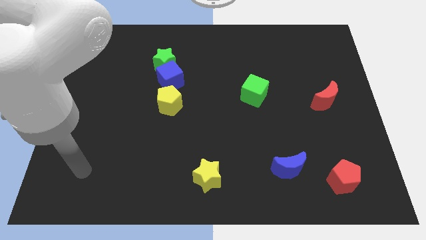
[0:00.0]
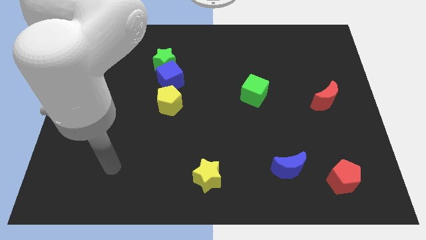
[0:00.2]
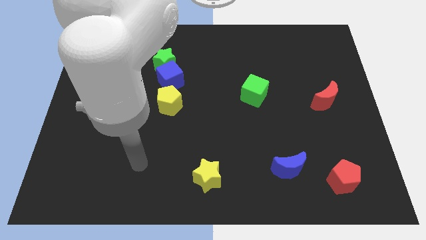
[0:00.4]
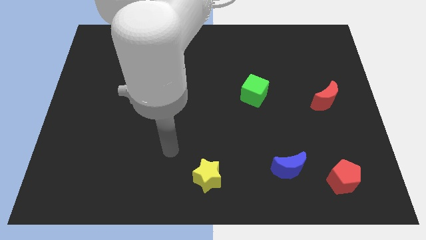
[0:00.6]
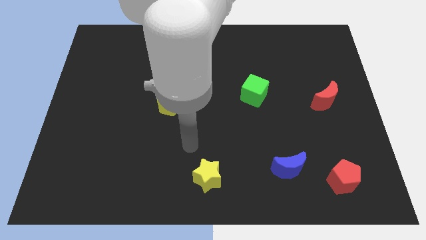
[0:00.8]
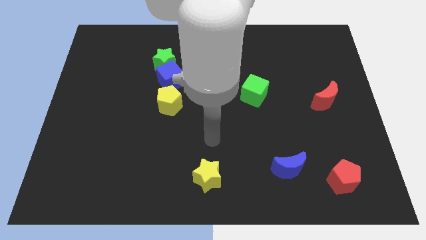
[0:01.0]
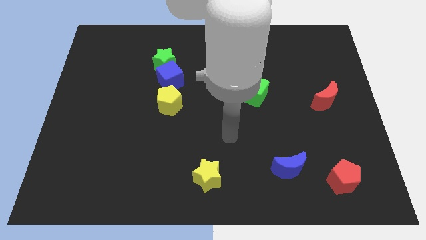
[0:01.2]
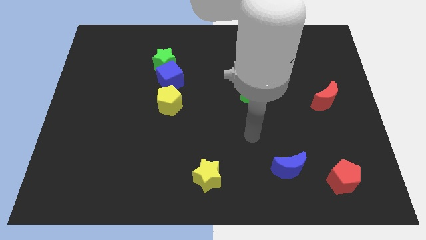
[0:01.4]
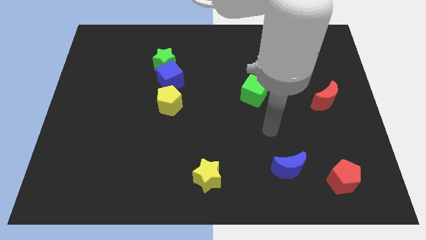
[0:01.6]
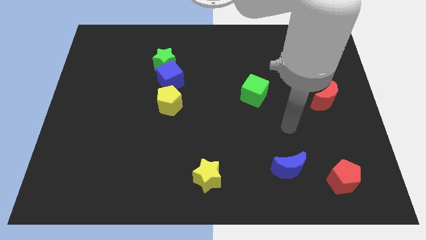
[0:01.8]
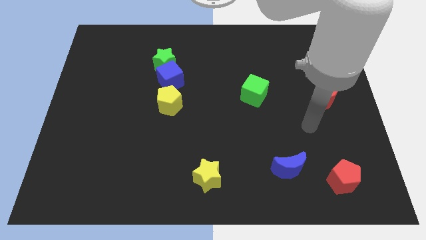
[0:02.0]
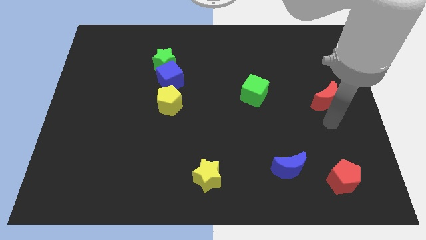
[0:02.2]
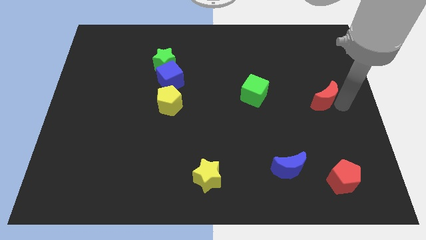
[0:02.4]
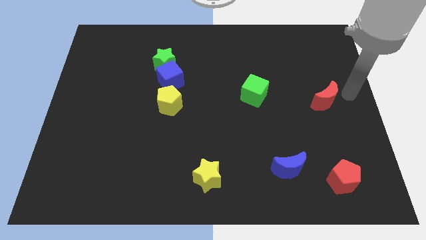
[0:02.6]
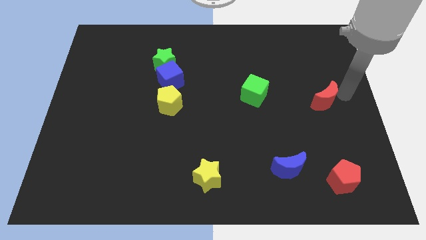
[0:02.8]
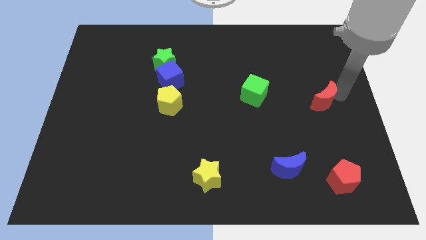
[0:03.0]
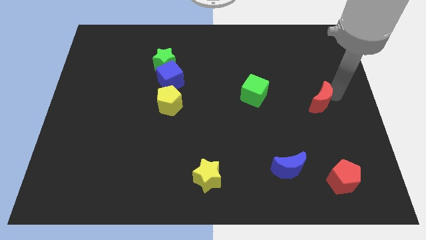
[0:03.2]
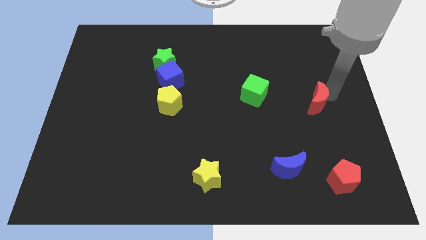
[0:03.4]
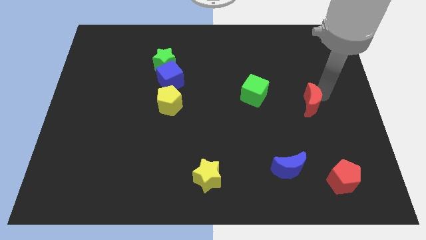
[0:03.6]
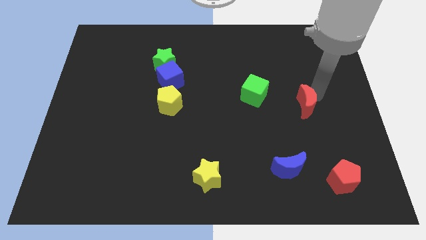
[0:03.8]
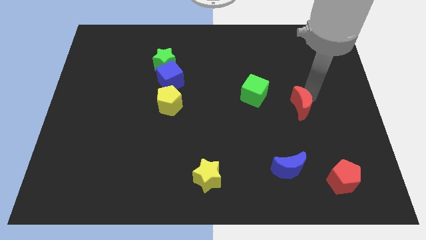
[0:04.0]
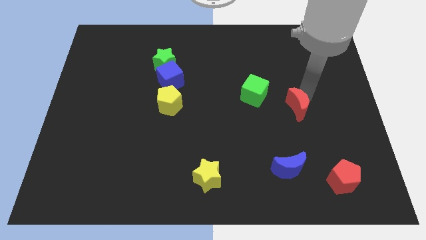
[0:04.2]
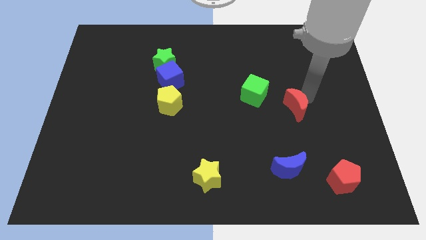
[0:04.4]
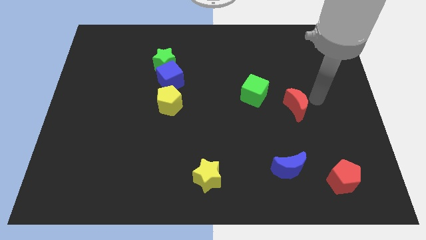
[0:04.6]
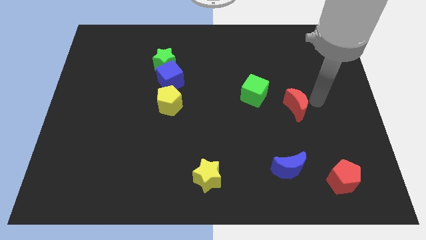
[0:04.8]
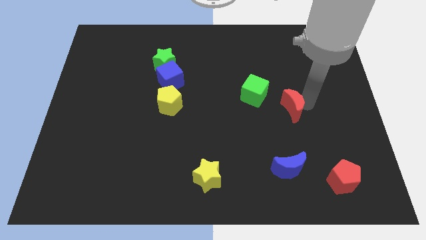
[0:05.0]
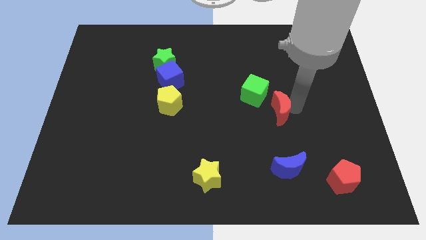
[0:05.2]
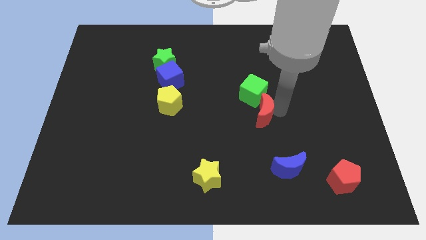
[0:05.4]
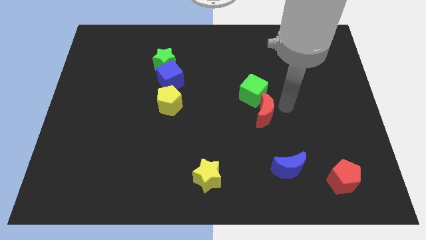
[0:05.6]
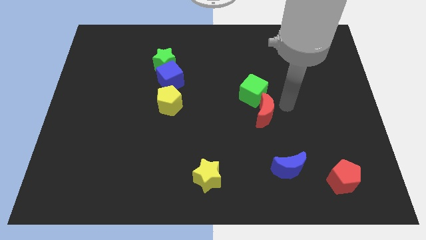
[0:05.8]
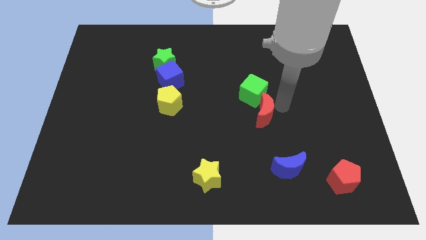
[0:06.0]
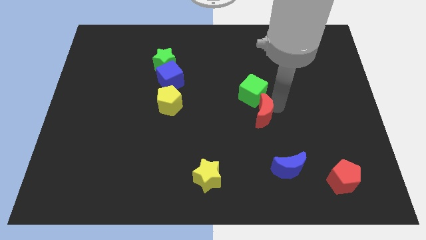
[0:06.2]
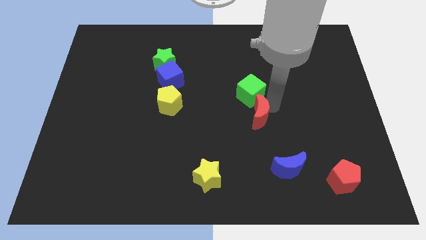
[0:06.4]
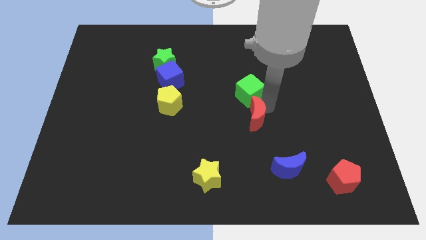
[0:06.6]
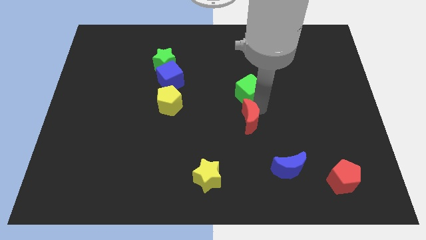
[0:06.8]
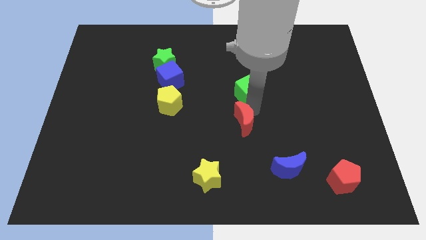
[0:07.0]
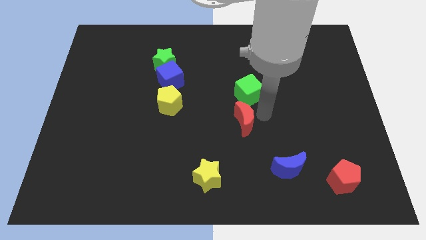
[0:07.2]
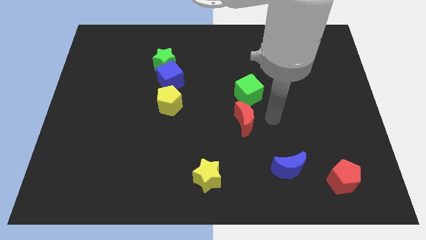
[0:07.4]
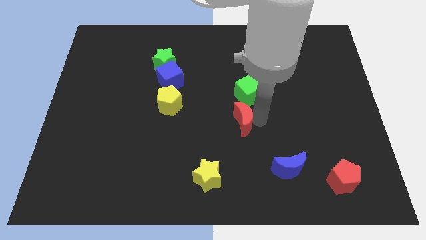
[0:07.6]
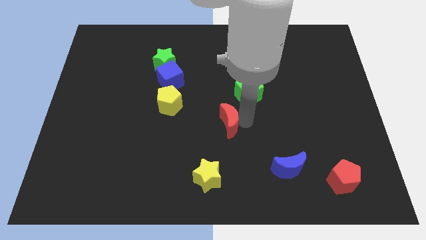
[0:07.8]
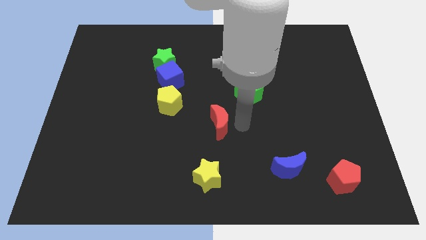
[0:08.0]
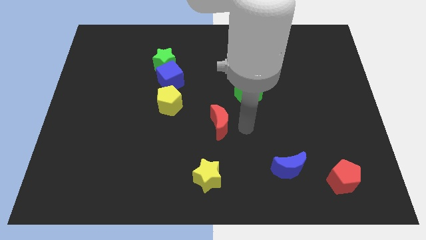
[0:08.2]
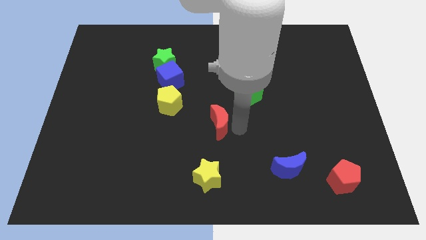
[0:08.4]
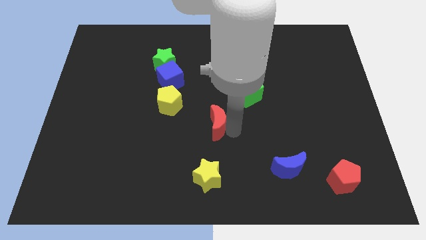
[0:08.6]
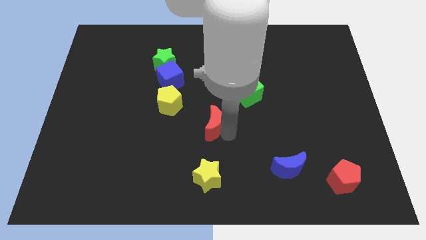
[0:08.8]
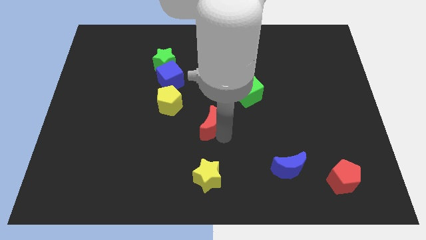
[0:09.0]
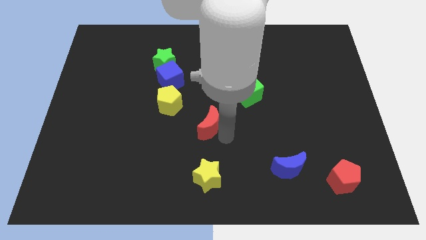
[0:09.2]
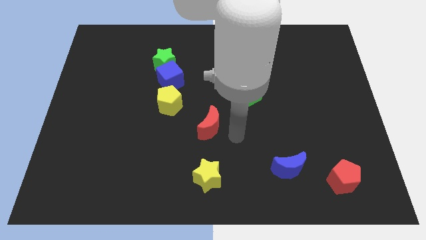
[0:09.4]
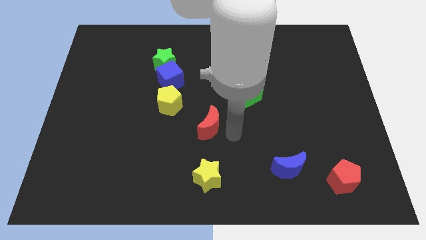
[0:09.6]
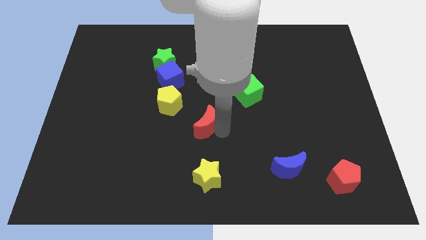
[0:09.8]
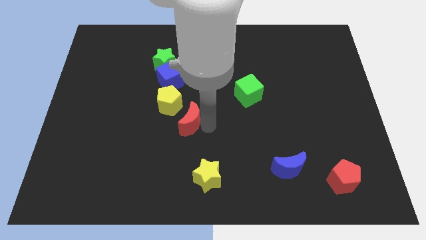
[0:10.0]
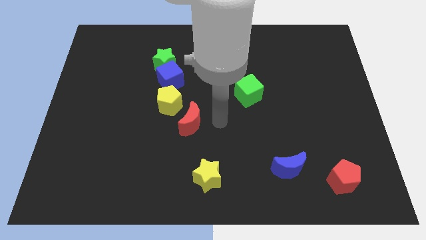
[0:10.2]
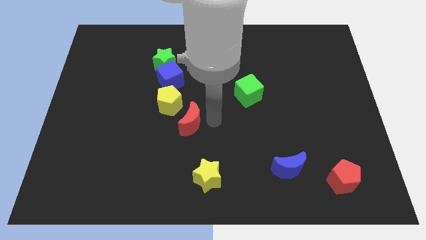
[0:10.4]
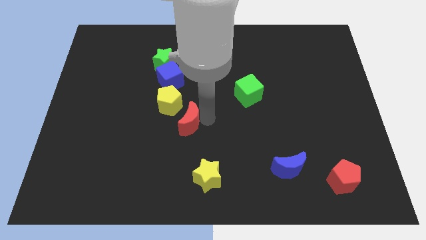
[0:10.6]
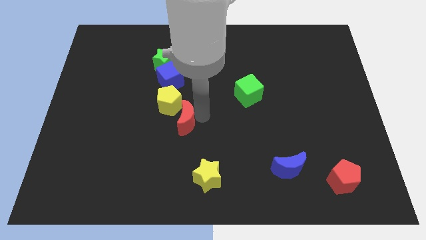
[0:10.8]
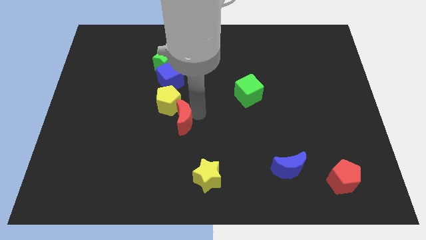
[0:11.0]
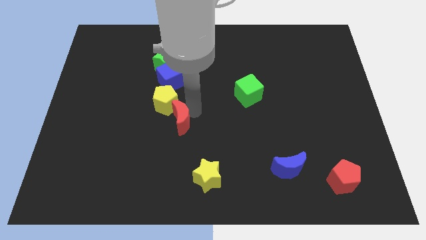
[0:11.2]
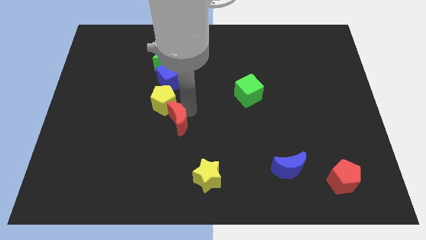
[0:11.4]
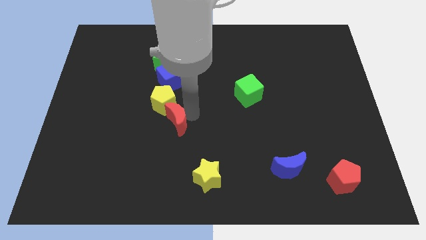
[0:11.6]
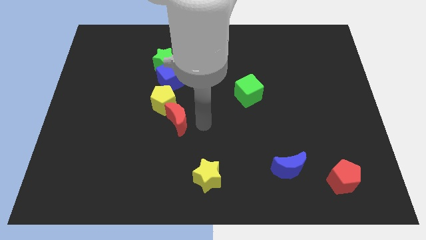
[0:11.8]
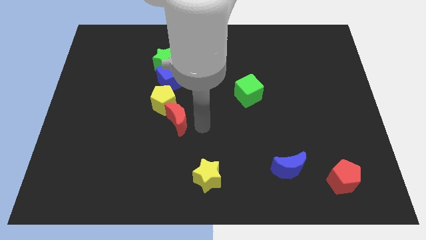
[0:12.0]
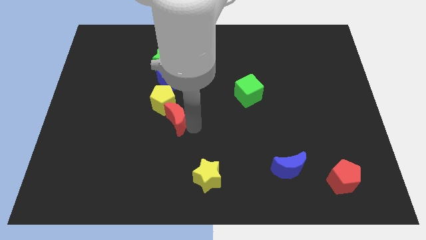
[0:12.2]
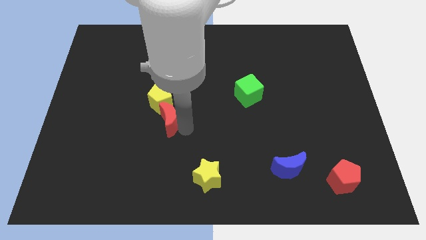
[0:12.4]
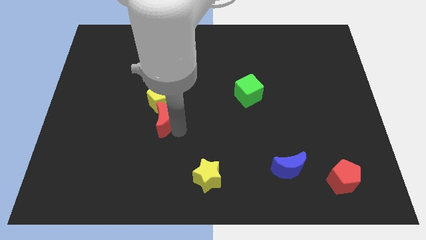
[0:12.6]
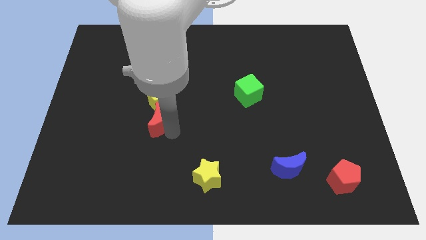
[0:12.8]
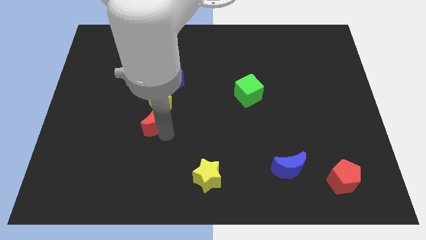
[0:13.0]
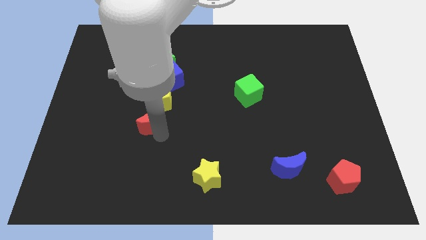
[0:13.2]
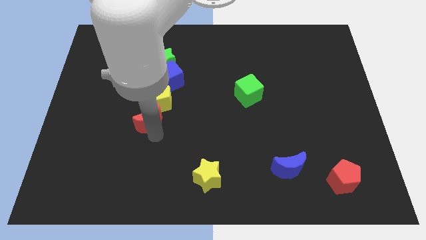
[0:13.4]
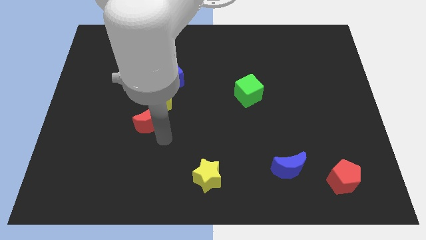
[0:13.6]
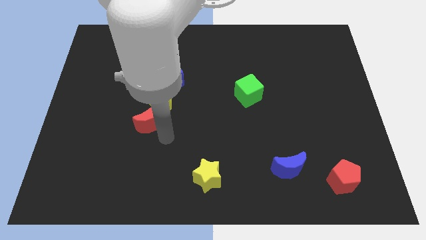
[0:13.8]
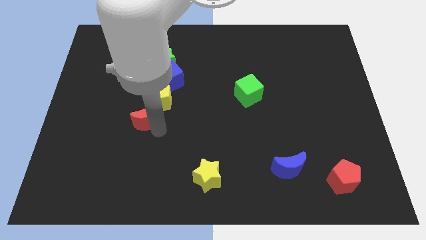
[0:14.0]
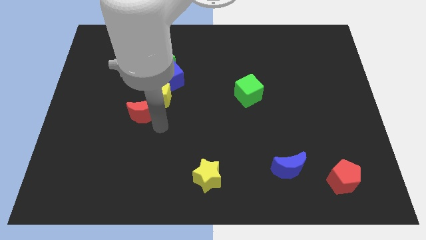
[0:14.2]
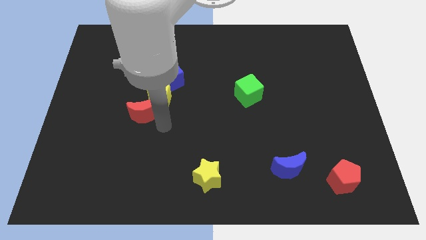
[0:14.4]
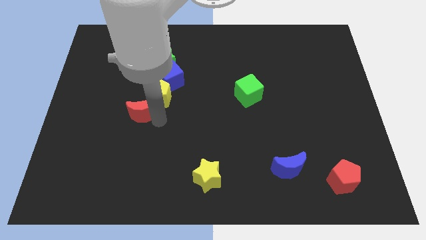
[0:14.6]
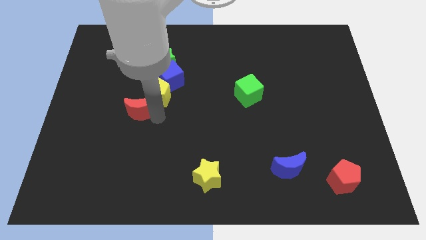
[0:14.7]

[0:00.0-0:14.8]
move the red moon left of the yellow pentagon
